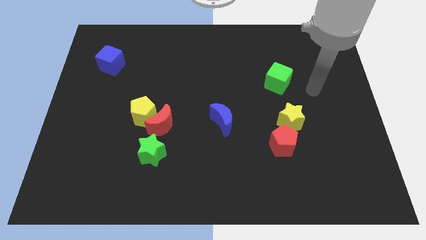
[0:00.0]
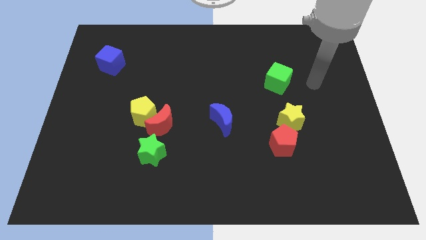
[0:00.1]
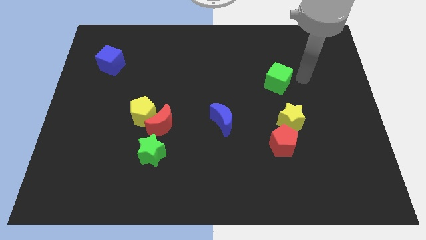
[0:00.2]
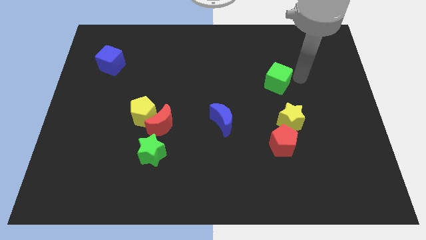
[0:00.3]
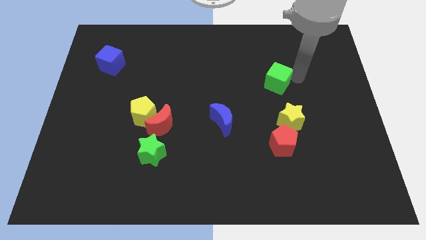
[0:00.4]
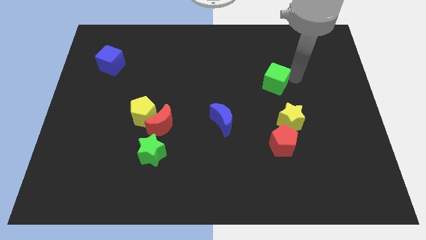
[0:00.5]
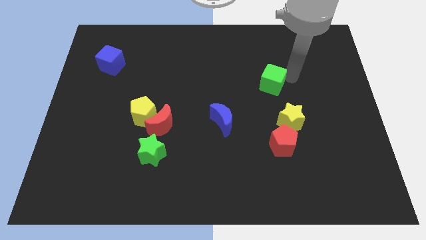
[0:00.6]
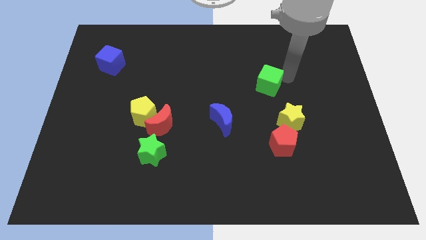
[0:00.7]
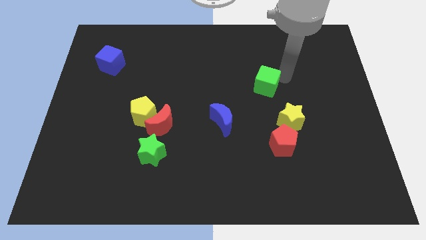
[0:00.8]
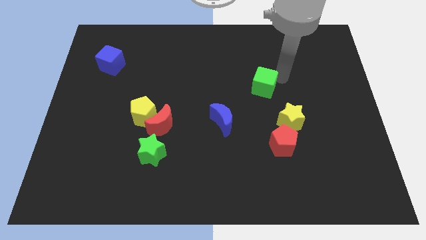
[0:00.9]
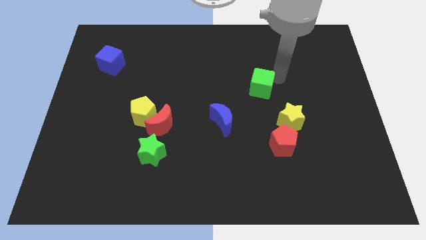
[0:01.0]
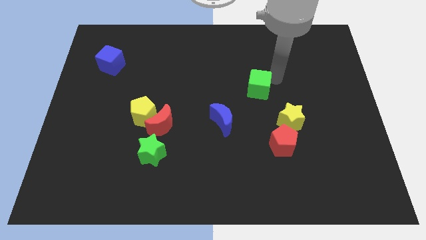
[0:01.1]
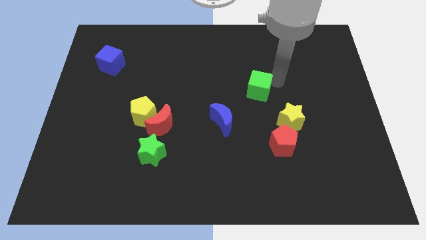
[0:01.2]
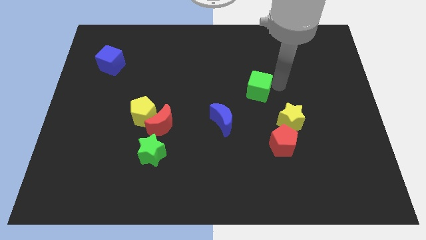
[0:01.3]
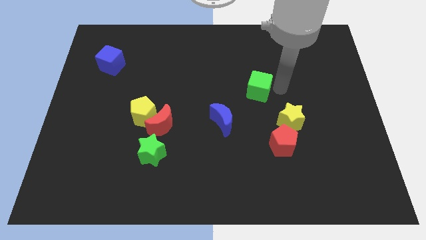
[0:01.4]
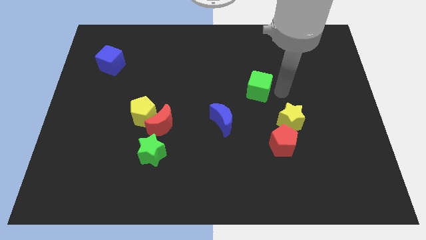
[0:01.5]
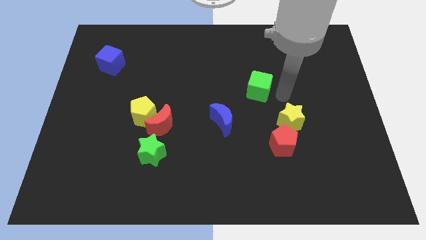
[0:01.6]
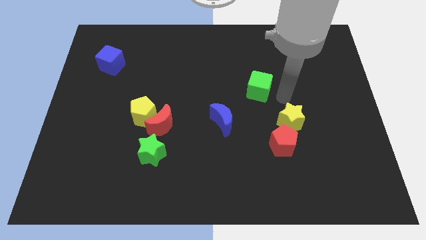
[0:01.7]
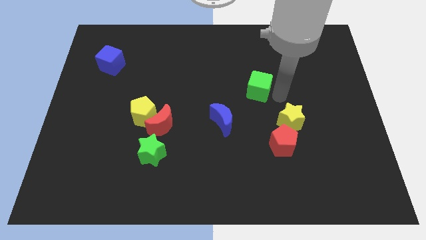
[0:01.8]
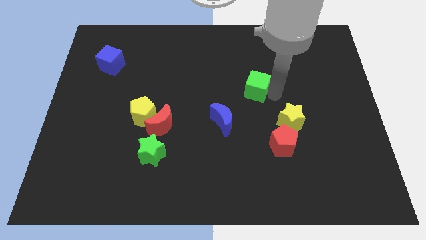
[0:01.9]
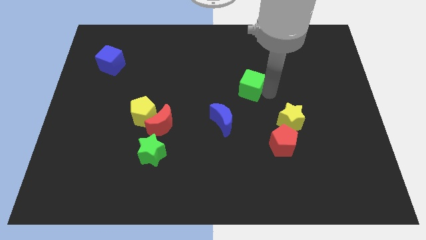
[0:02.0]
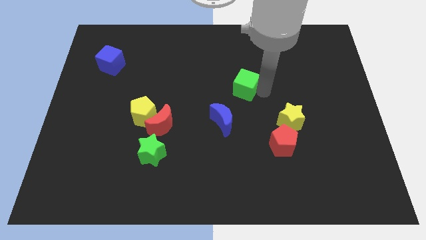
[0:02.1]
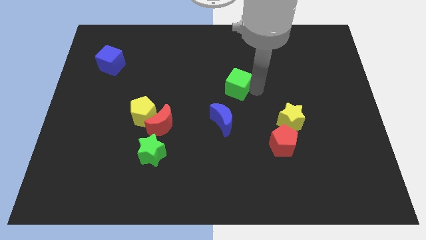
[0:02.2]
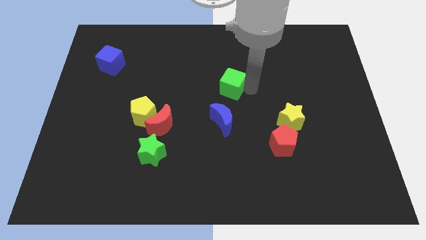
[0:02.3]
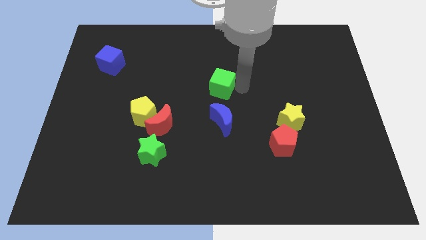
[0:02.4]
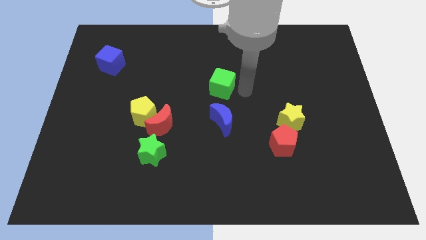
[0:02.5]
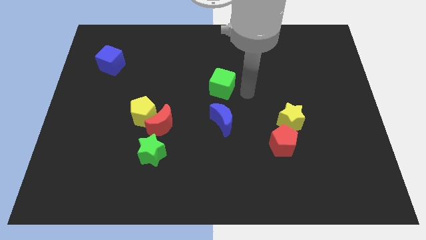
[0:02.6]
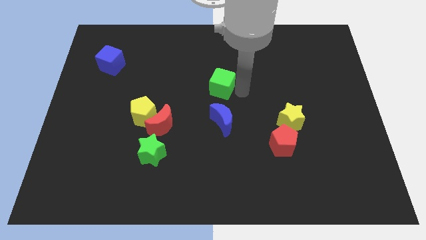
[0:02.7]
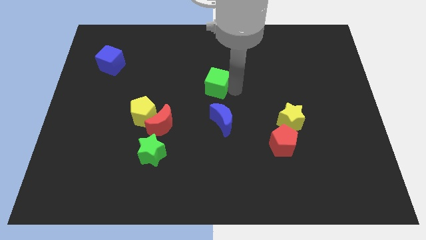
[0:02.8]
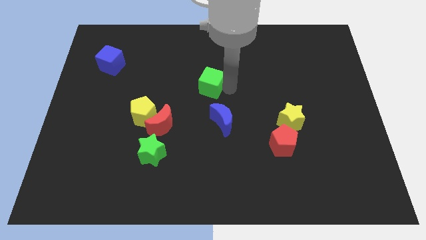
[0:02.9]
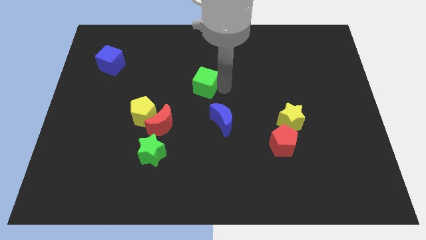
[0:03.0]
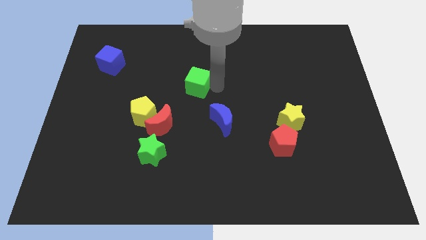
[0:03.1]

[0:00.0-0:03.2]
push the green cube left

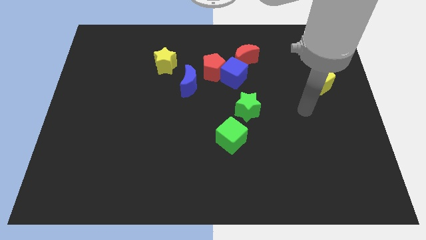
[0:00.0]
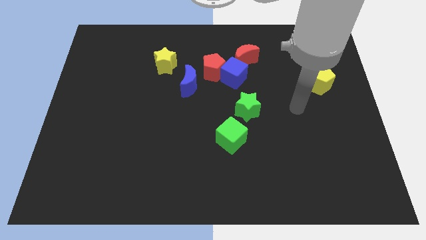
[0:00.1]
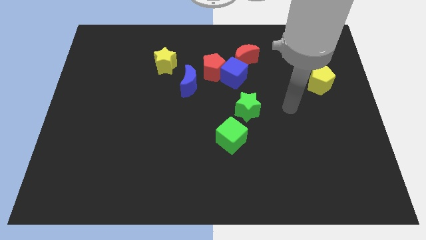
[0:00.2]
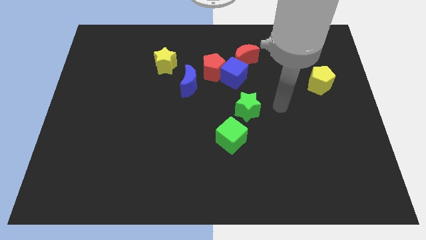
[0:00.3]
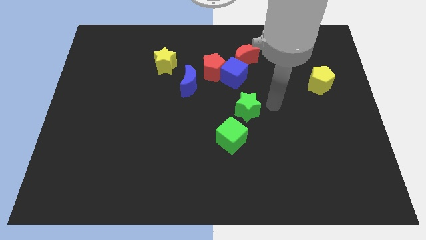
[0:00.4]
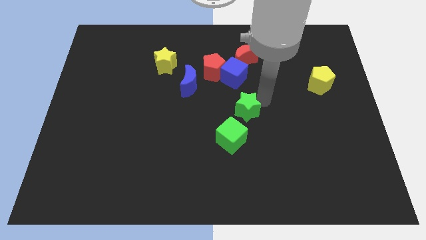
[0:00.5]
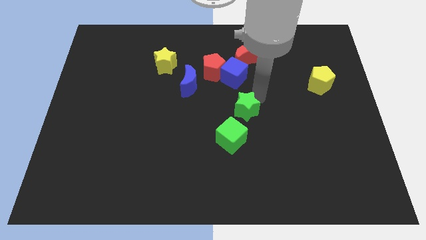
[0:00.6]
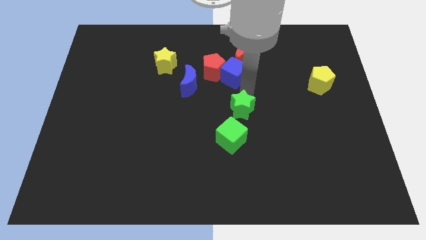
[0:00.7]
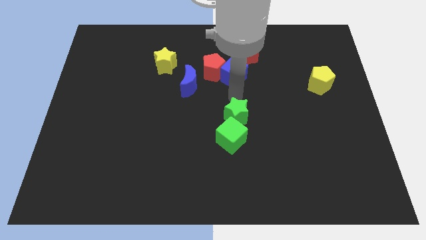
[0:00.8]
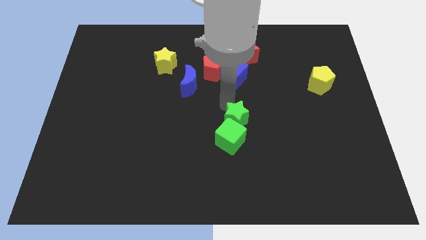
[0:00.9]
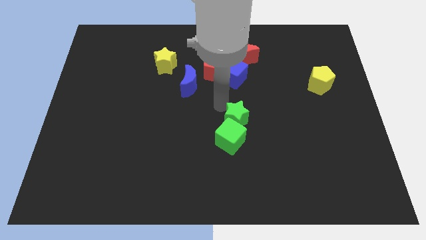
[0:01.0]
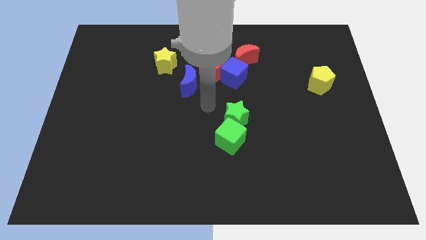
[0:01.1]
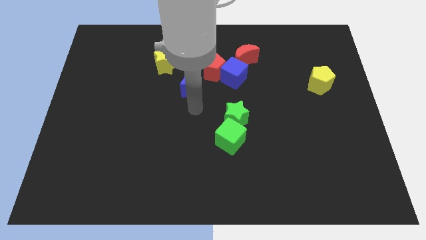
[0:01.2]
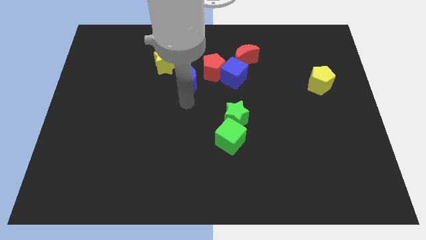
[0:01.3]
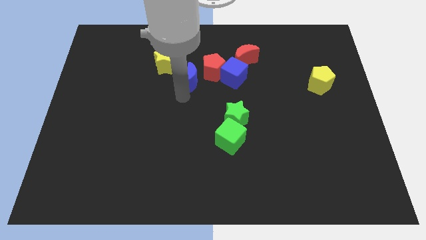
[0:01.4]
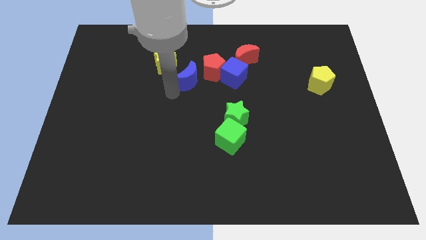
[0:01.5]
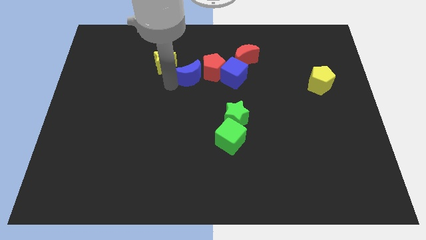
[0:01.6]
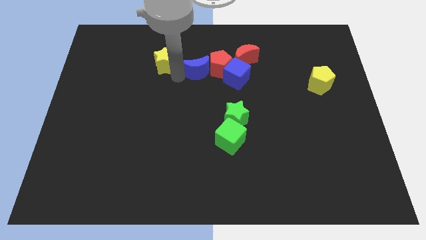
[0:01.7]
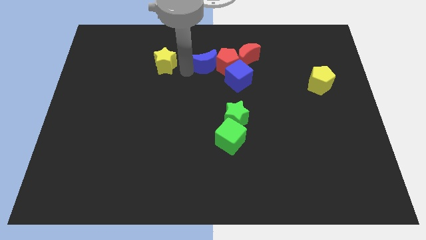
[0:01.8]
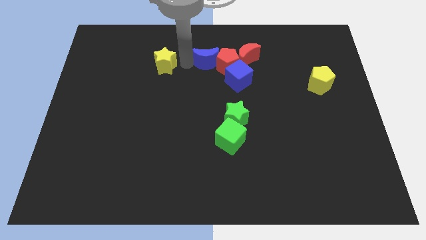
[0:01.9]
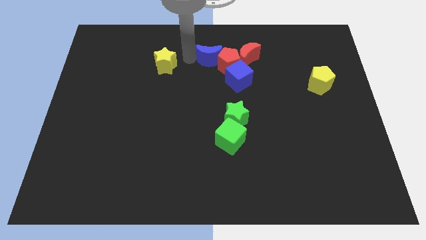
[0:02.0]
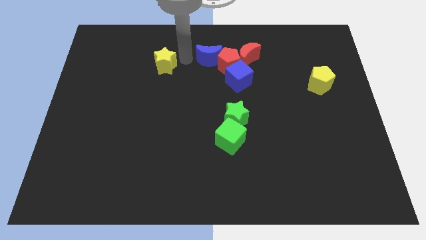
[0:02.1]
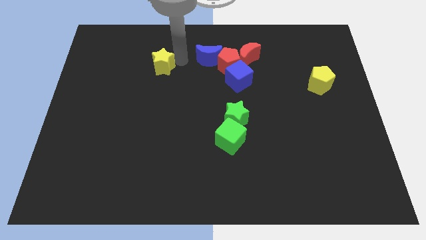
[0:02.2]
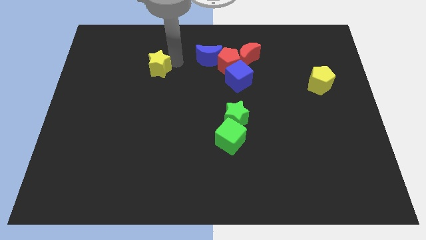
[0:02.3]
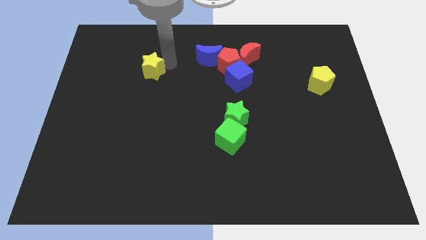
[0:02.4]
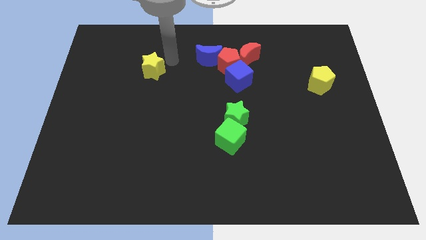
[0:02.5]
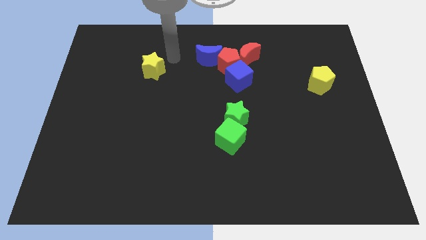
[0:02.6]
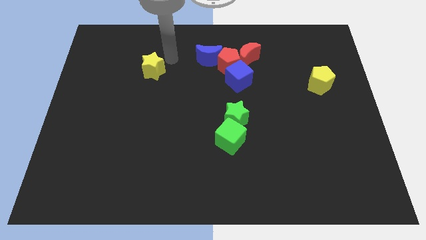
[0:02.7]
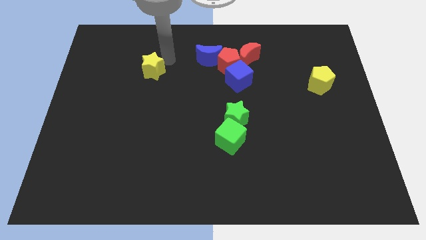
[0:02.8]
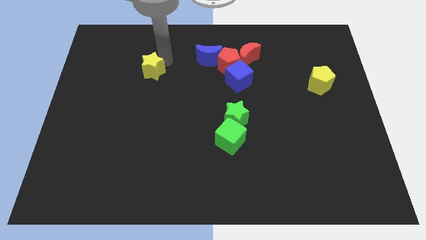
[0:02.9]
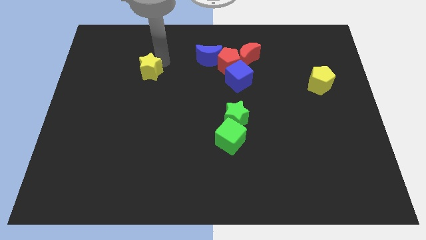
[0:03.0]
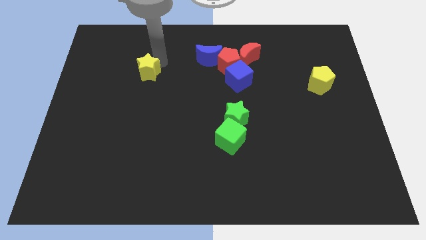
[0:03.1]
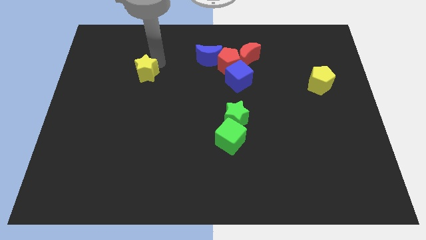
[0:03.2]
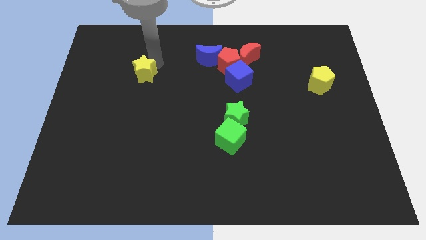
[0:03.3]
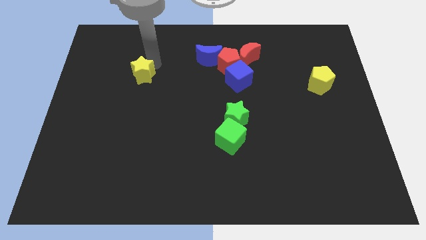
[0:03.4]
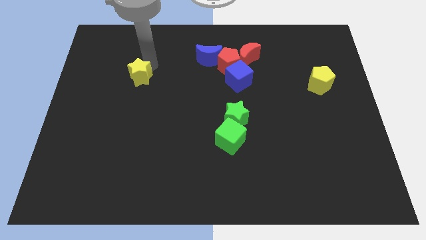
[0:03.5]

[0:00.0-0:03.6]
slightly slide the yellow star diagonally down and to the left

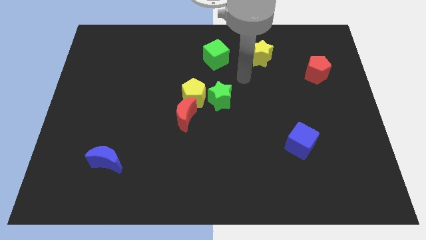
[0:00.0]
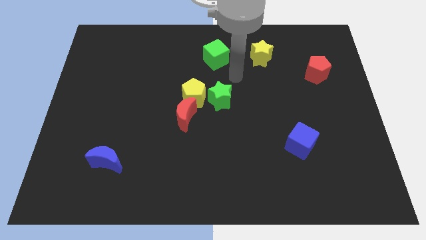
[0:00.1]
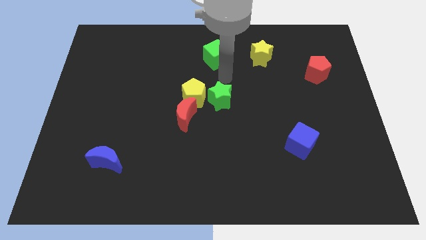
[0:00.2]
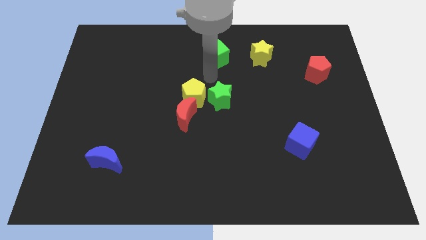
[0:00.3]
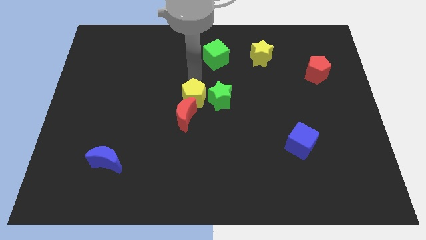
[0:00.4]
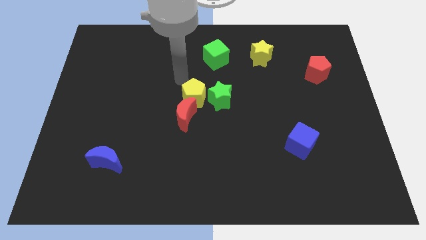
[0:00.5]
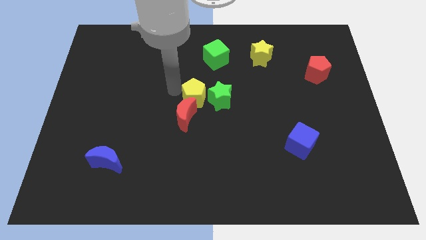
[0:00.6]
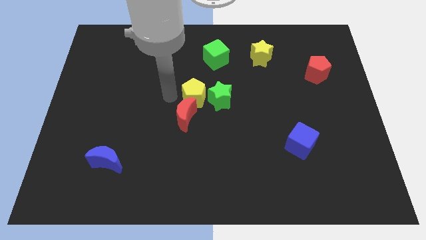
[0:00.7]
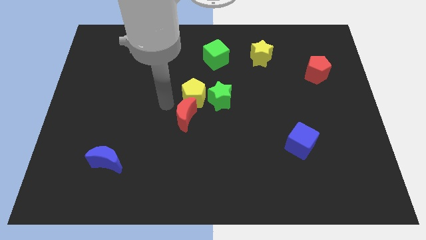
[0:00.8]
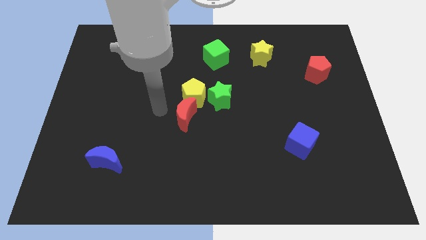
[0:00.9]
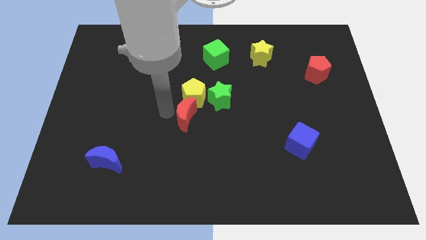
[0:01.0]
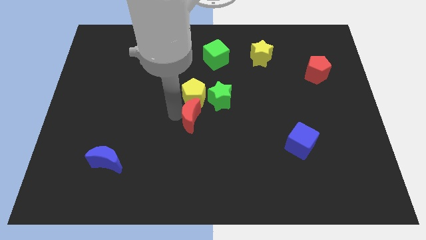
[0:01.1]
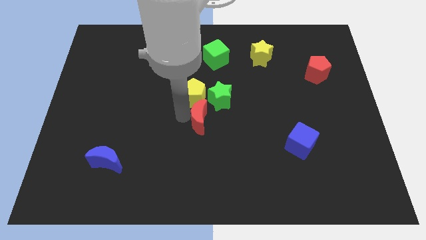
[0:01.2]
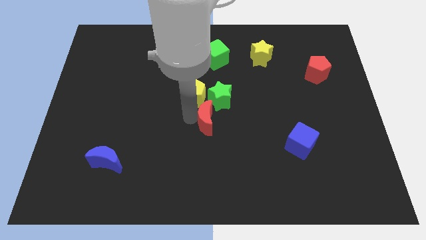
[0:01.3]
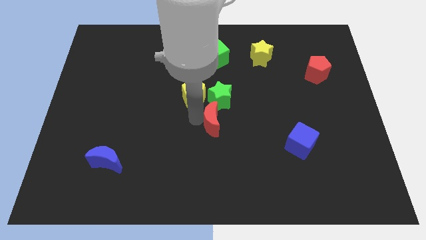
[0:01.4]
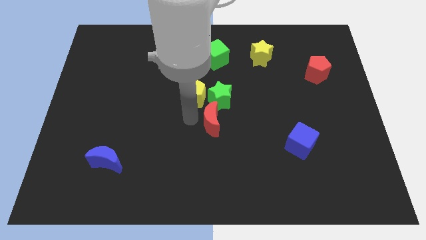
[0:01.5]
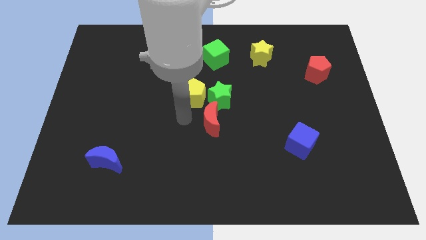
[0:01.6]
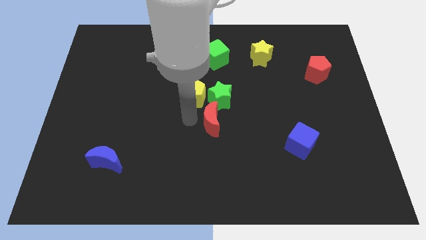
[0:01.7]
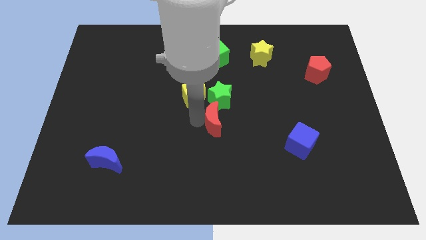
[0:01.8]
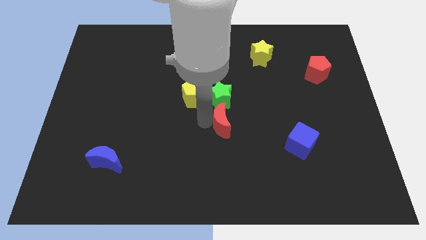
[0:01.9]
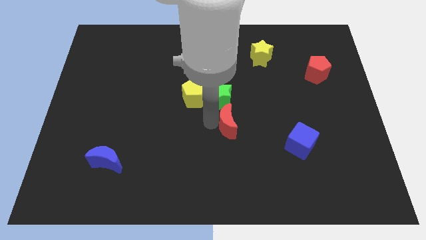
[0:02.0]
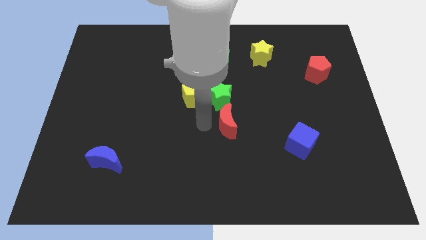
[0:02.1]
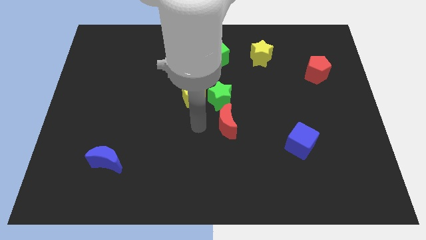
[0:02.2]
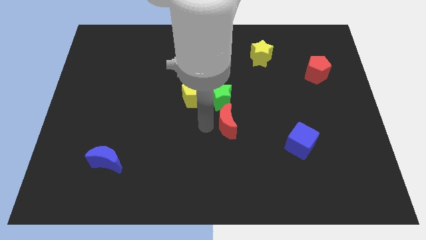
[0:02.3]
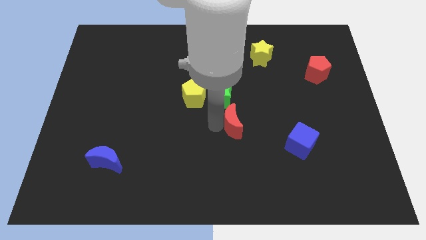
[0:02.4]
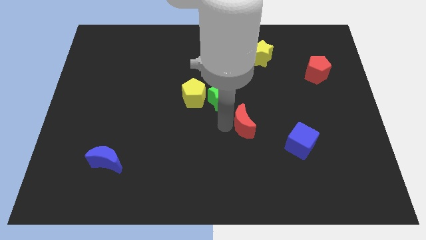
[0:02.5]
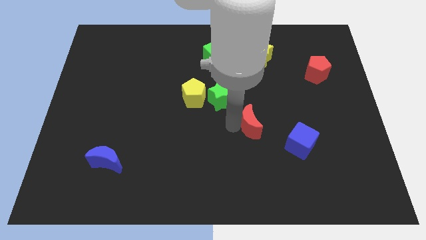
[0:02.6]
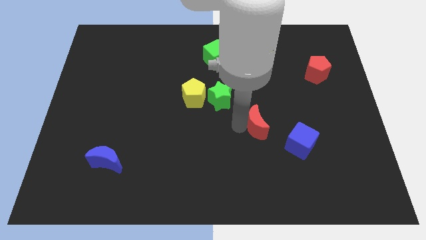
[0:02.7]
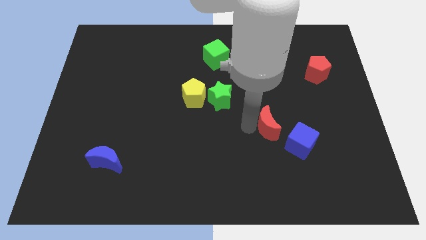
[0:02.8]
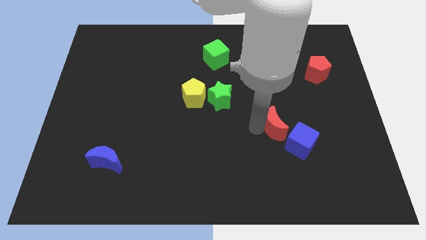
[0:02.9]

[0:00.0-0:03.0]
push the red moon to the right
